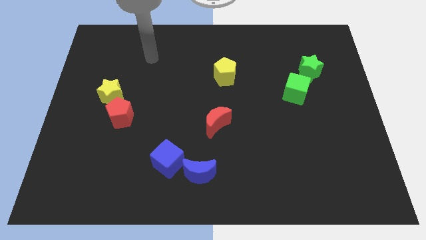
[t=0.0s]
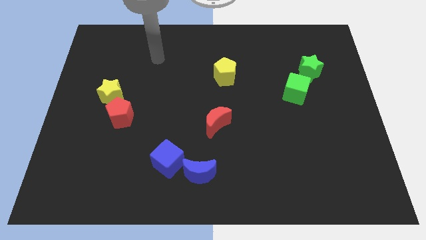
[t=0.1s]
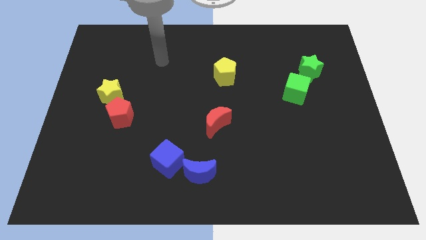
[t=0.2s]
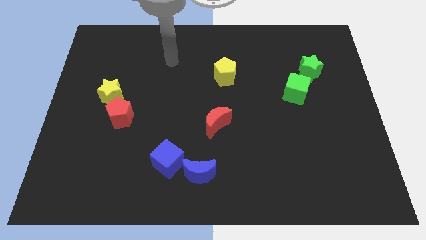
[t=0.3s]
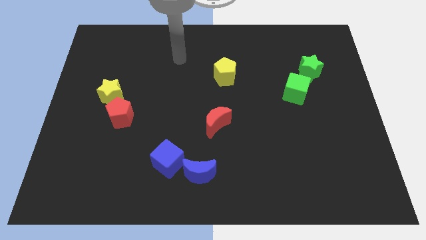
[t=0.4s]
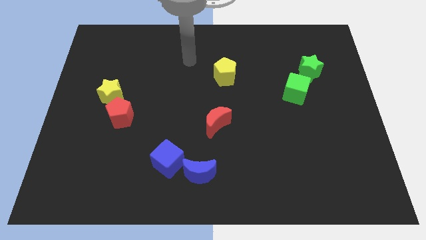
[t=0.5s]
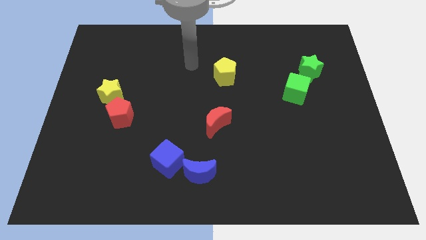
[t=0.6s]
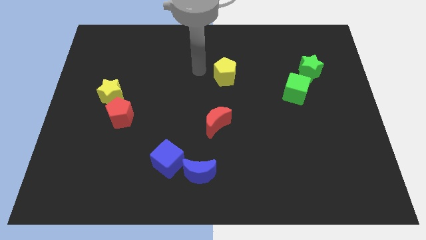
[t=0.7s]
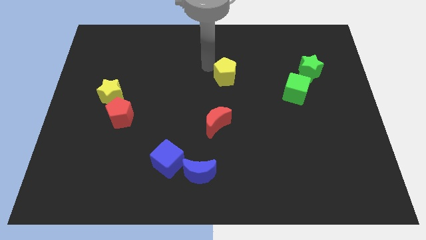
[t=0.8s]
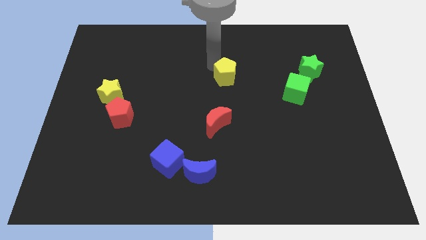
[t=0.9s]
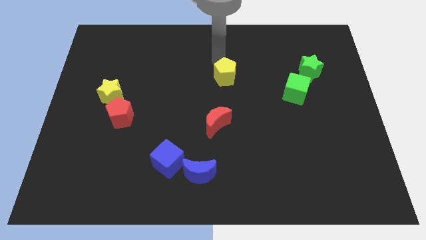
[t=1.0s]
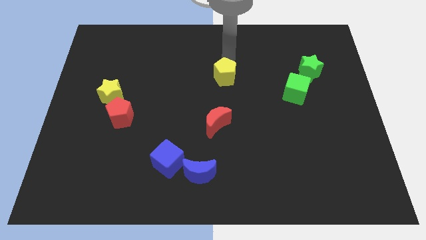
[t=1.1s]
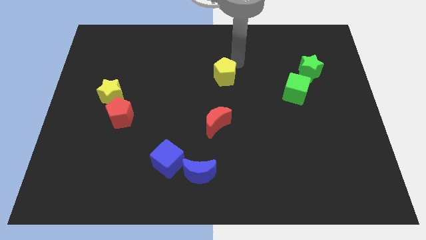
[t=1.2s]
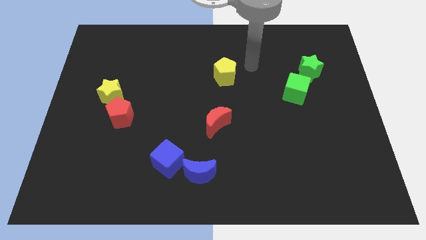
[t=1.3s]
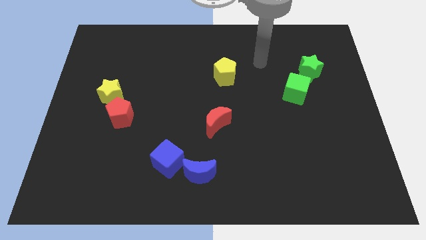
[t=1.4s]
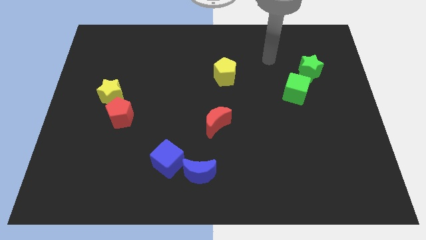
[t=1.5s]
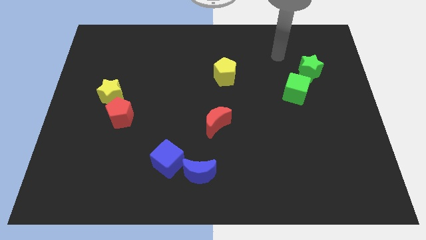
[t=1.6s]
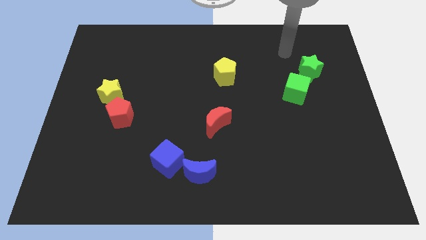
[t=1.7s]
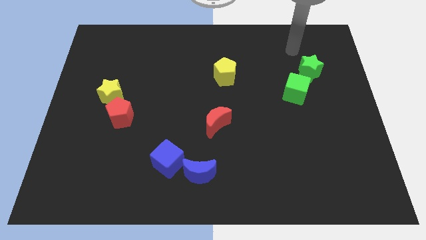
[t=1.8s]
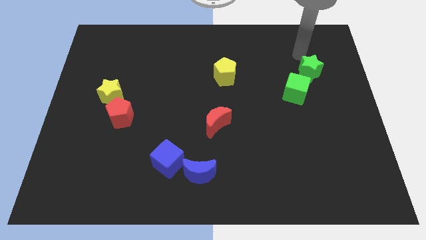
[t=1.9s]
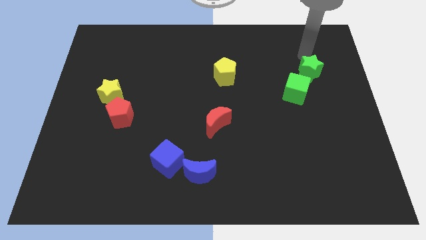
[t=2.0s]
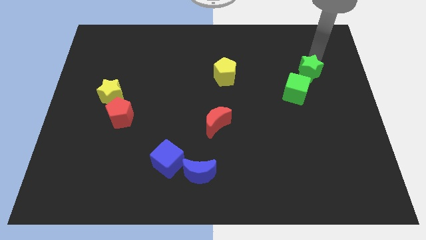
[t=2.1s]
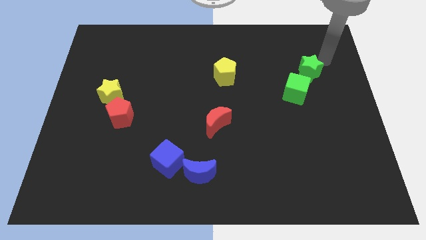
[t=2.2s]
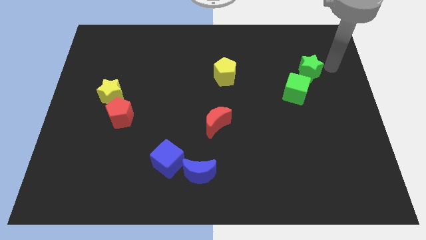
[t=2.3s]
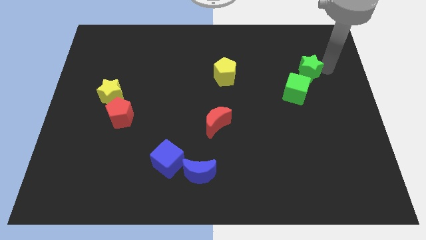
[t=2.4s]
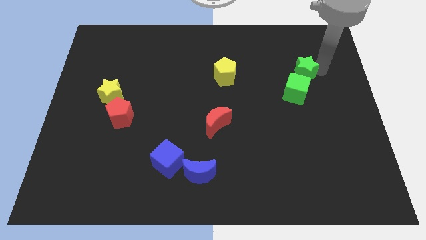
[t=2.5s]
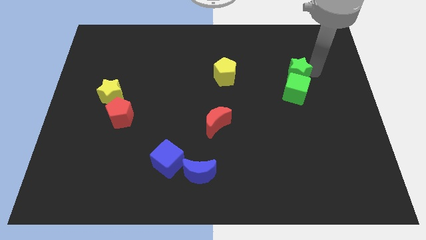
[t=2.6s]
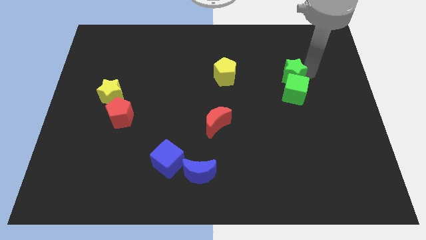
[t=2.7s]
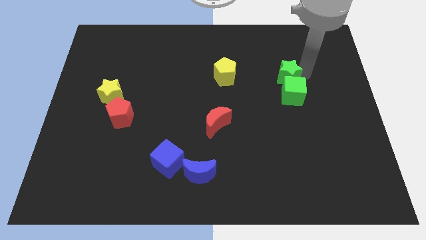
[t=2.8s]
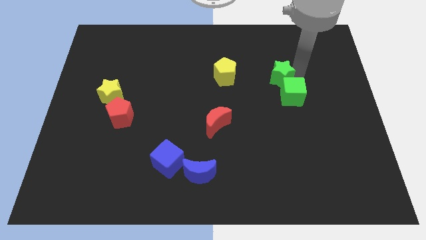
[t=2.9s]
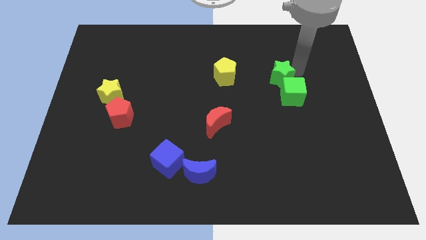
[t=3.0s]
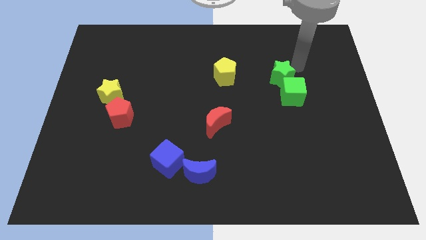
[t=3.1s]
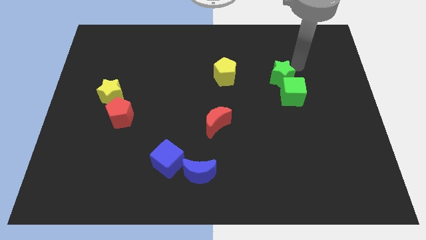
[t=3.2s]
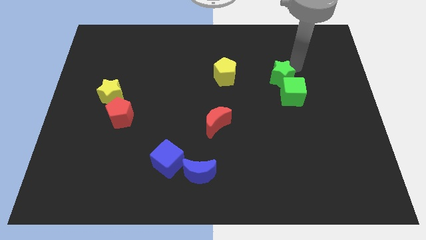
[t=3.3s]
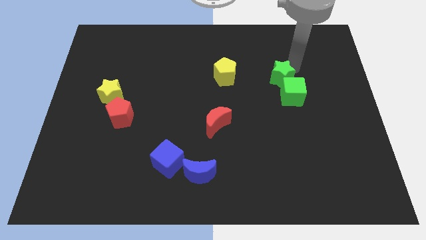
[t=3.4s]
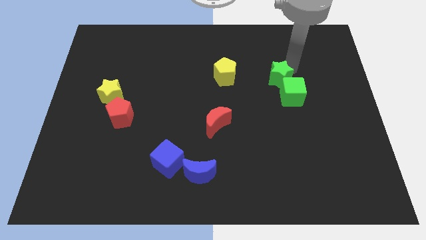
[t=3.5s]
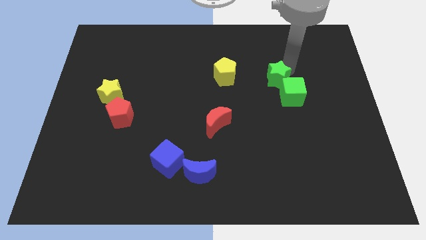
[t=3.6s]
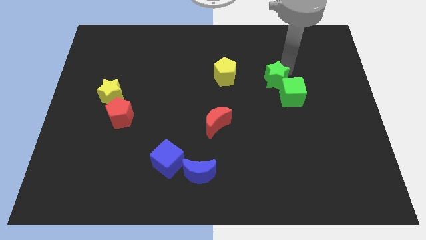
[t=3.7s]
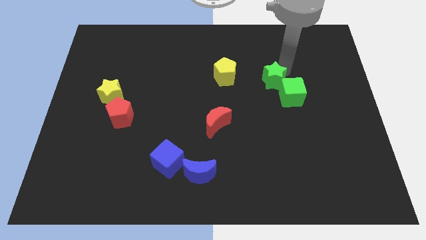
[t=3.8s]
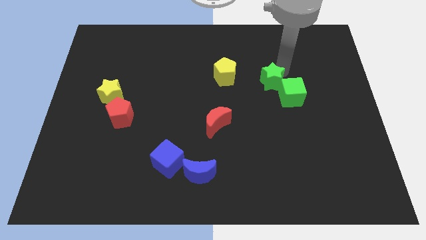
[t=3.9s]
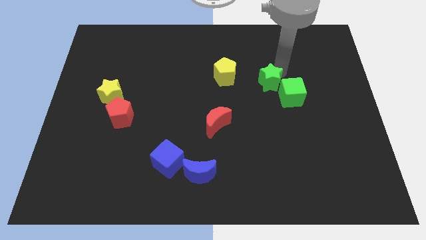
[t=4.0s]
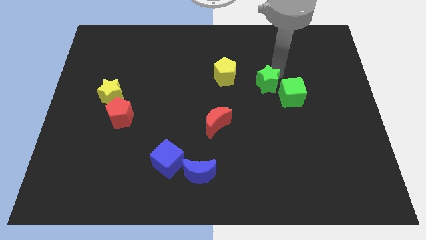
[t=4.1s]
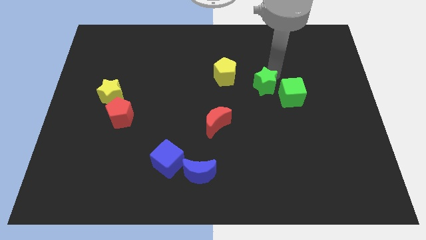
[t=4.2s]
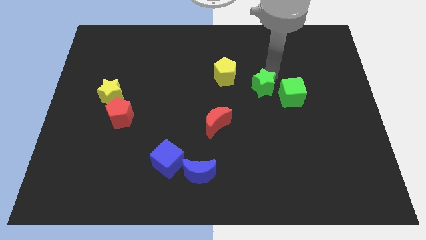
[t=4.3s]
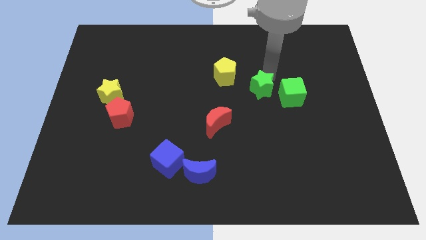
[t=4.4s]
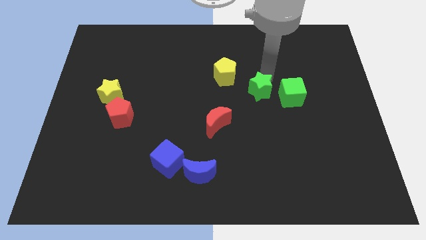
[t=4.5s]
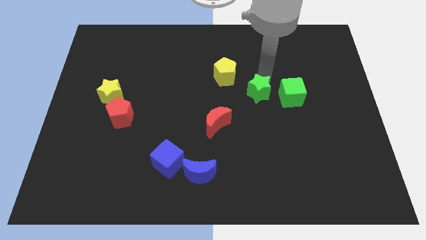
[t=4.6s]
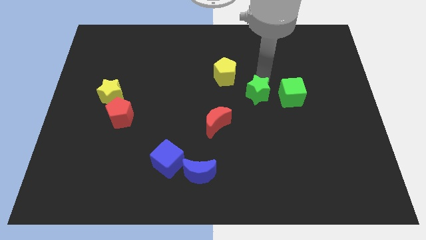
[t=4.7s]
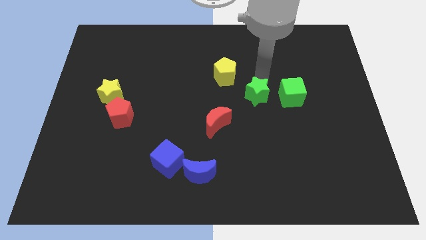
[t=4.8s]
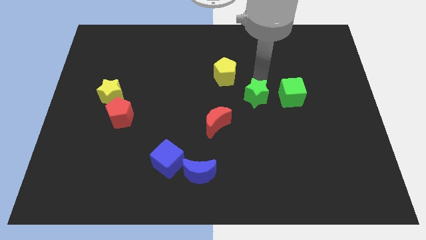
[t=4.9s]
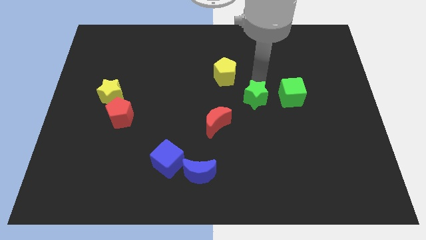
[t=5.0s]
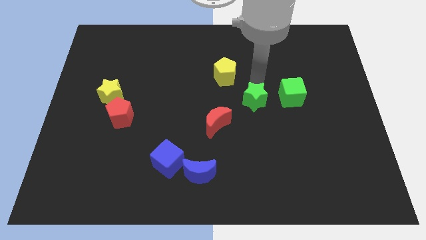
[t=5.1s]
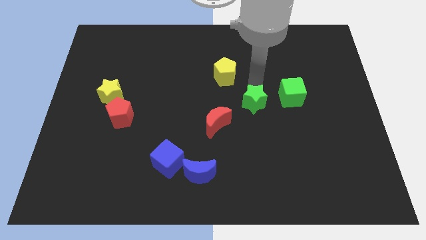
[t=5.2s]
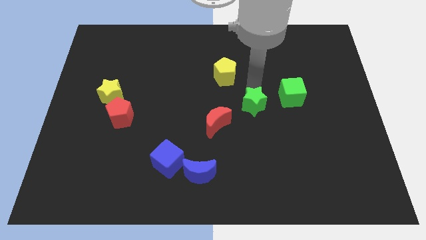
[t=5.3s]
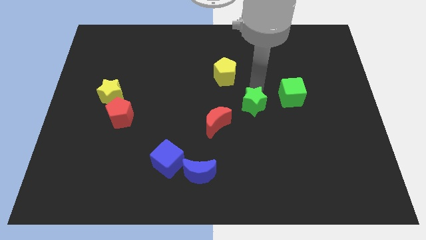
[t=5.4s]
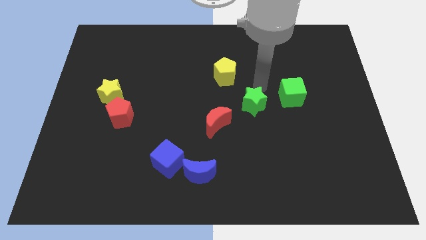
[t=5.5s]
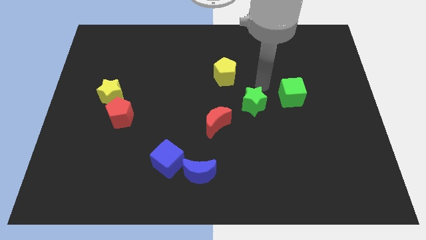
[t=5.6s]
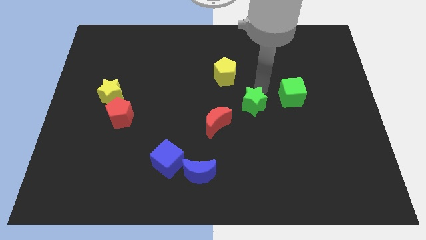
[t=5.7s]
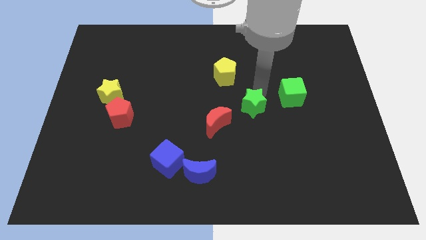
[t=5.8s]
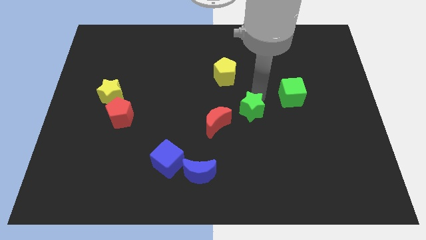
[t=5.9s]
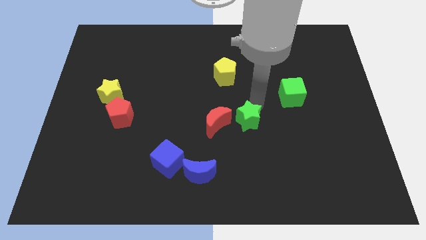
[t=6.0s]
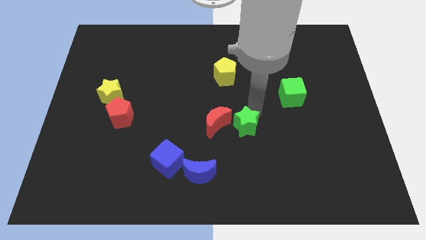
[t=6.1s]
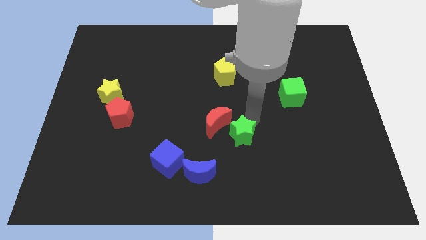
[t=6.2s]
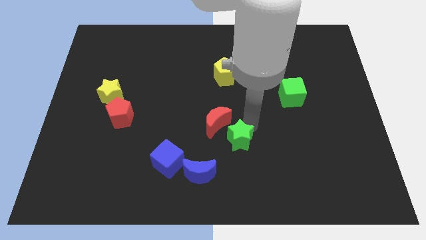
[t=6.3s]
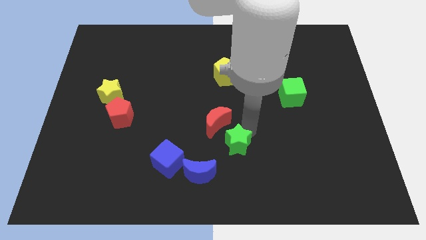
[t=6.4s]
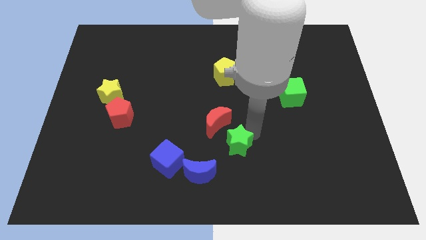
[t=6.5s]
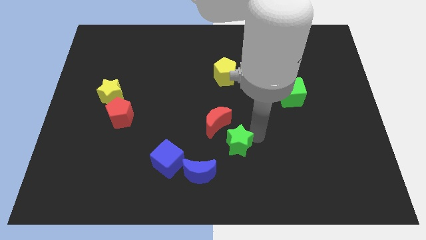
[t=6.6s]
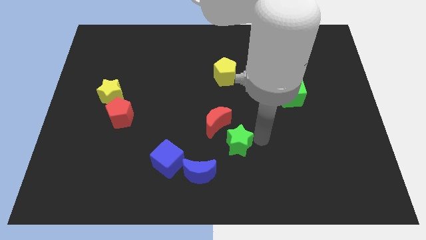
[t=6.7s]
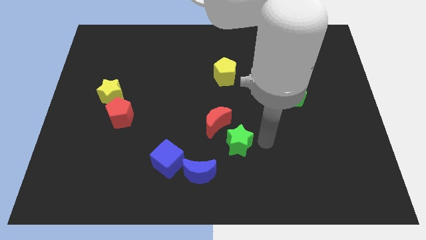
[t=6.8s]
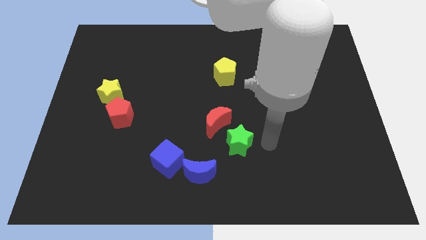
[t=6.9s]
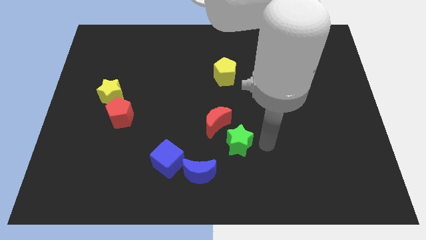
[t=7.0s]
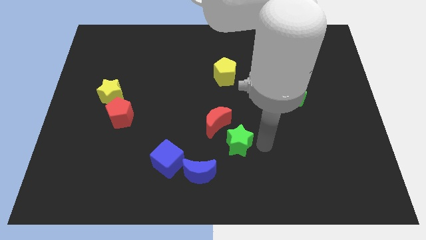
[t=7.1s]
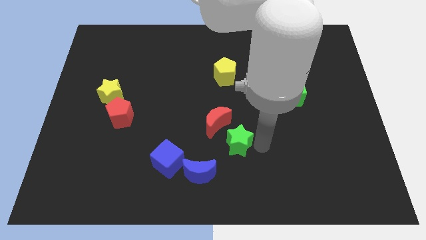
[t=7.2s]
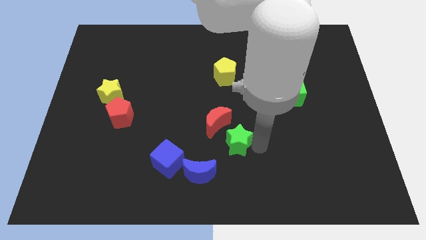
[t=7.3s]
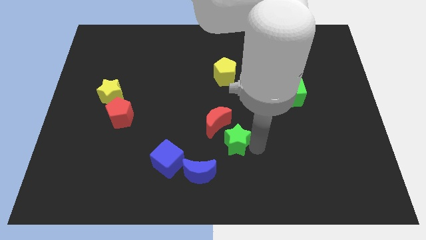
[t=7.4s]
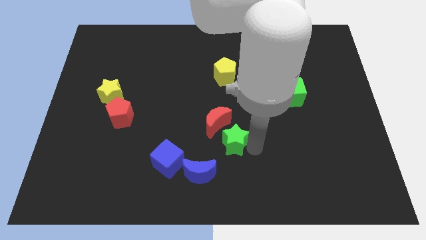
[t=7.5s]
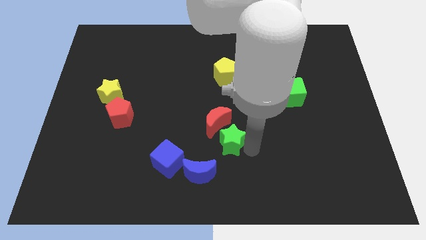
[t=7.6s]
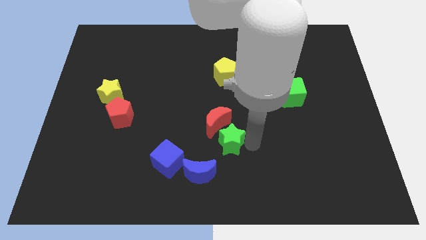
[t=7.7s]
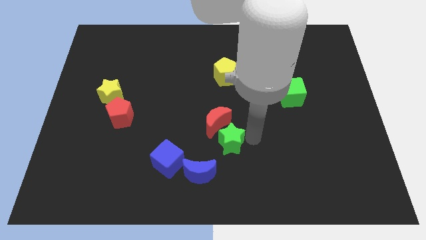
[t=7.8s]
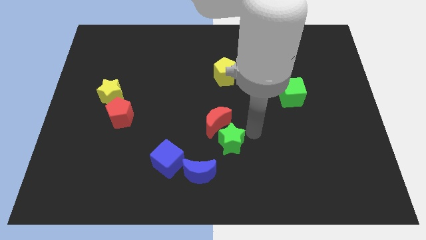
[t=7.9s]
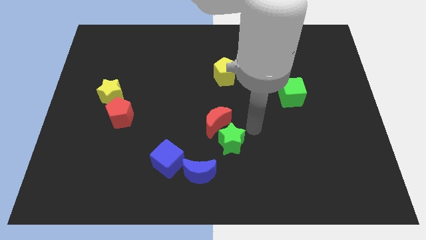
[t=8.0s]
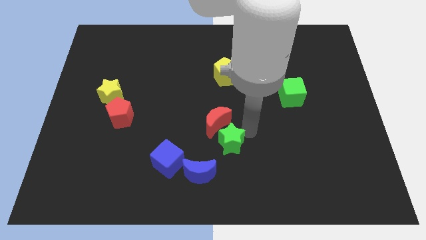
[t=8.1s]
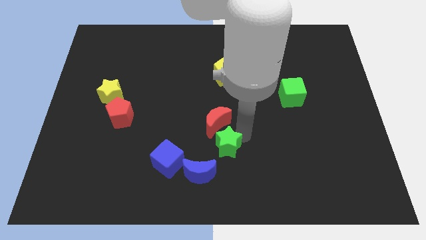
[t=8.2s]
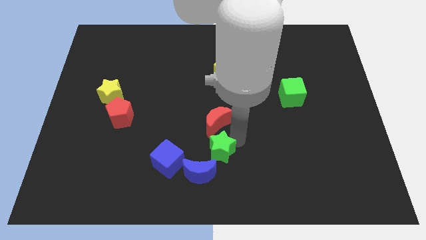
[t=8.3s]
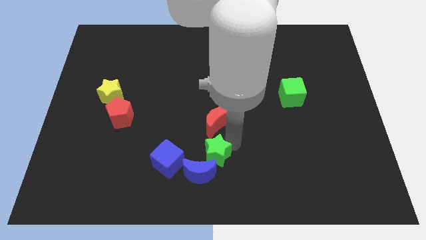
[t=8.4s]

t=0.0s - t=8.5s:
push the green star next to the blue moon
